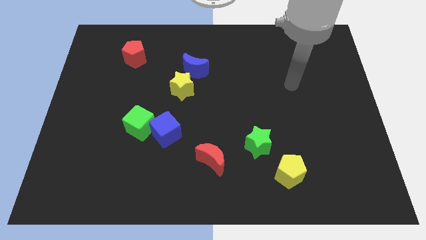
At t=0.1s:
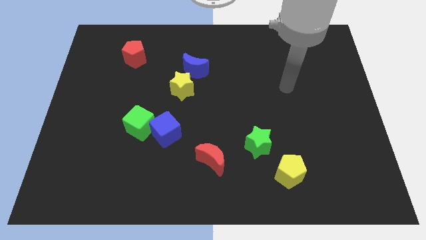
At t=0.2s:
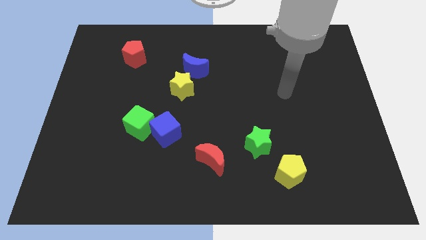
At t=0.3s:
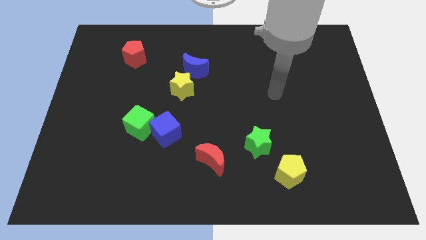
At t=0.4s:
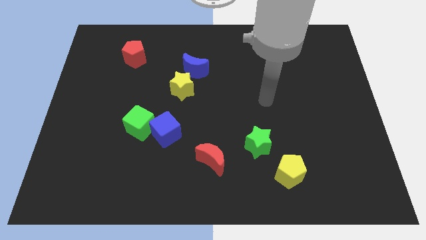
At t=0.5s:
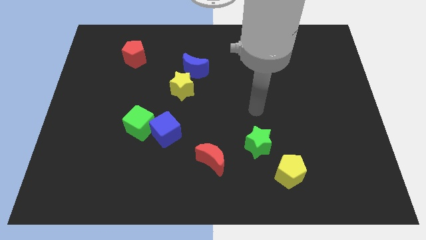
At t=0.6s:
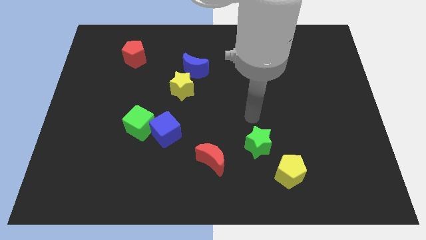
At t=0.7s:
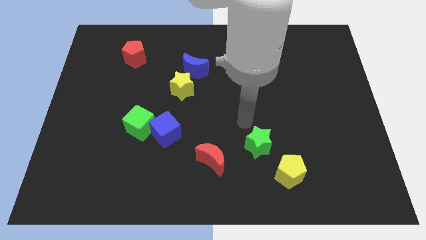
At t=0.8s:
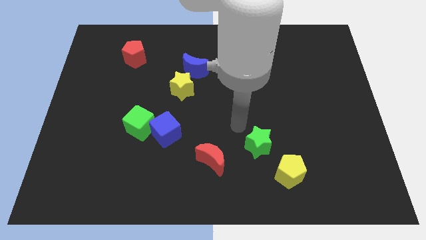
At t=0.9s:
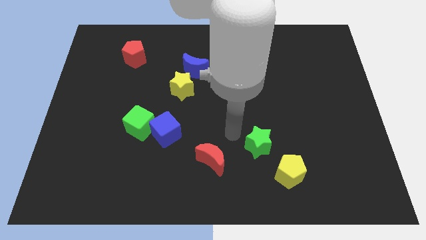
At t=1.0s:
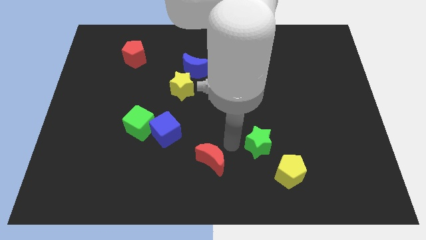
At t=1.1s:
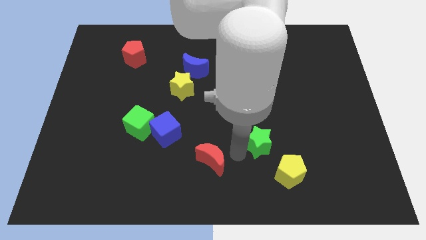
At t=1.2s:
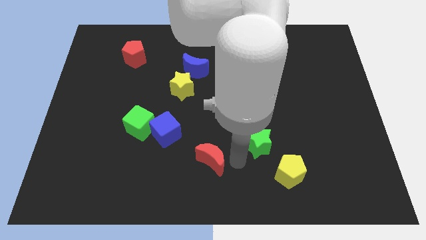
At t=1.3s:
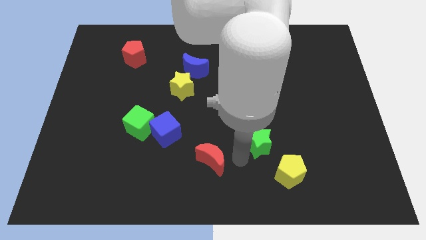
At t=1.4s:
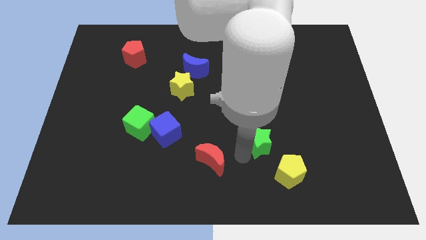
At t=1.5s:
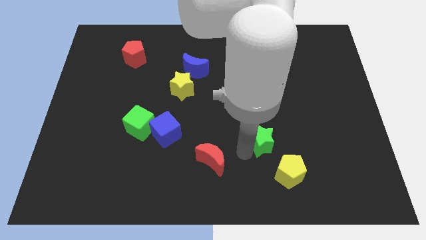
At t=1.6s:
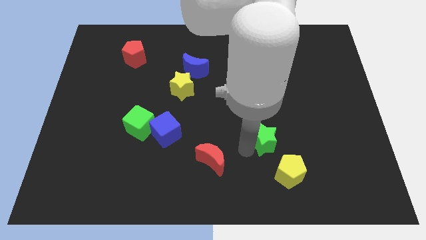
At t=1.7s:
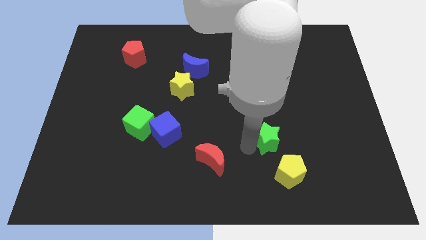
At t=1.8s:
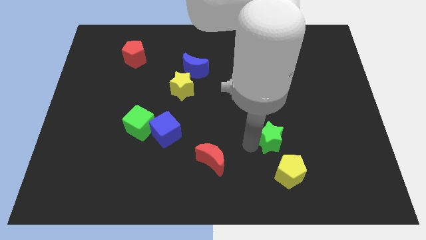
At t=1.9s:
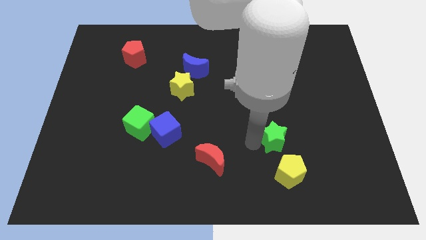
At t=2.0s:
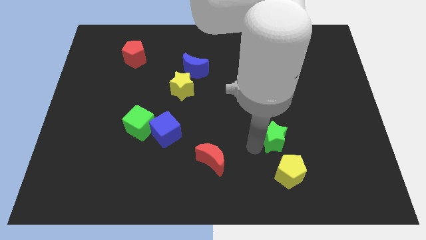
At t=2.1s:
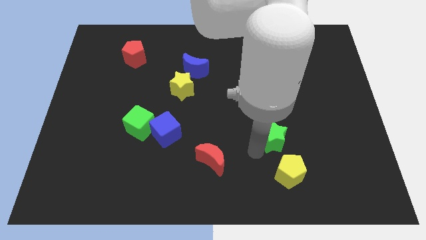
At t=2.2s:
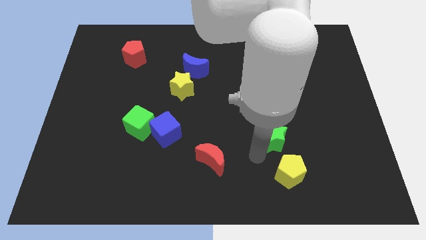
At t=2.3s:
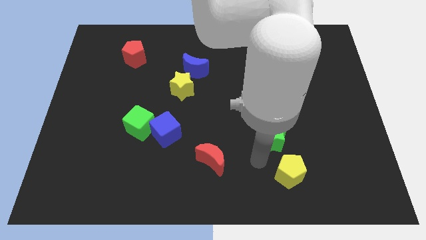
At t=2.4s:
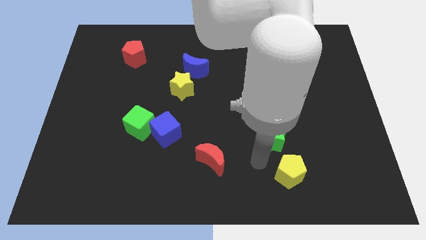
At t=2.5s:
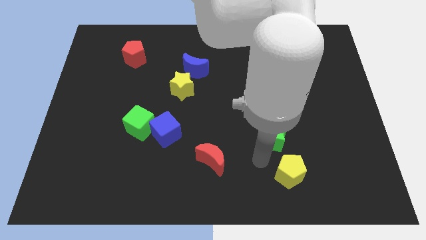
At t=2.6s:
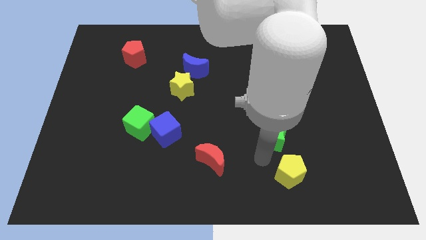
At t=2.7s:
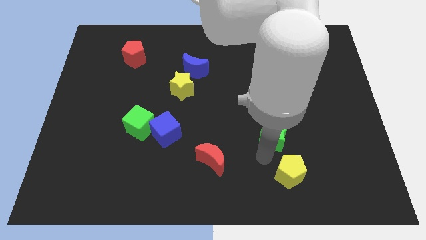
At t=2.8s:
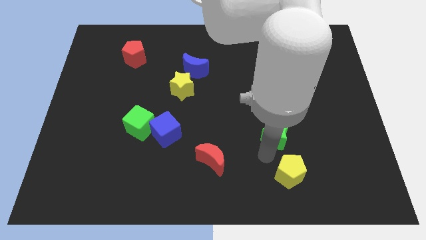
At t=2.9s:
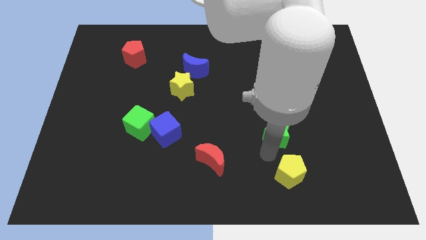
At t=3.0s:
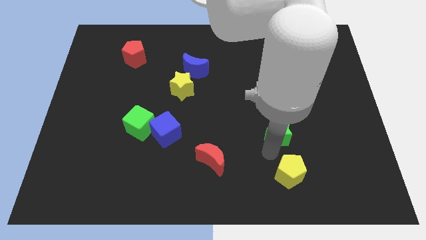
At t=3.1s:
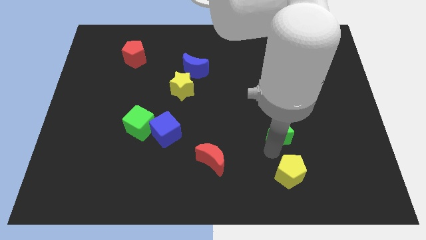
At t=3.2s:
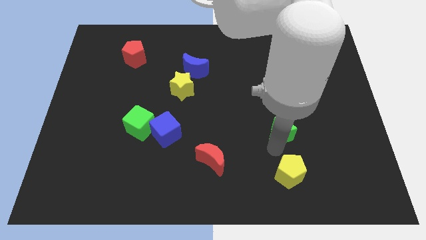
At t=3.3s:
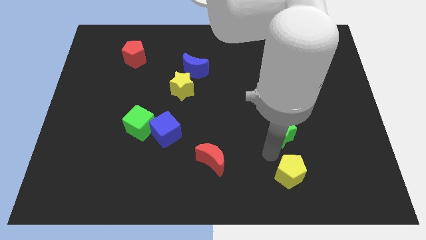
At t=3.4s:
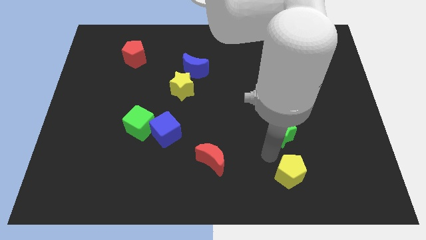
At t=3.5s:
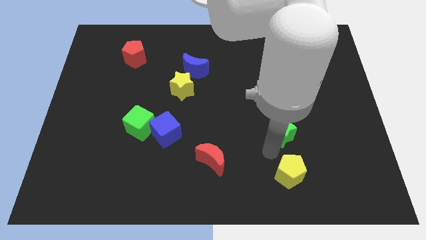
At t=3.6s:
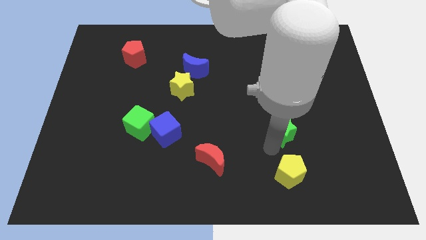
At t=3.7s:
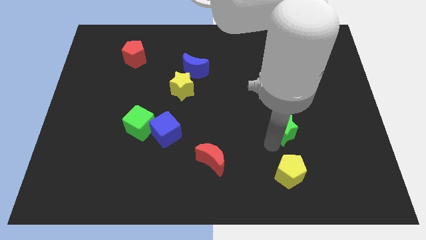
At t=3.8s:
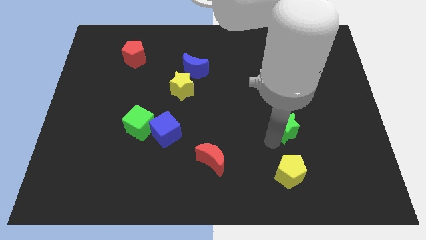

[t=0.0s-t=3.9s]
move the green star somewhat up and right

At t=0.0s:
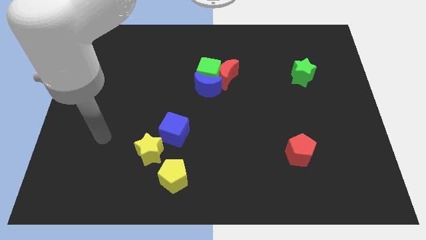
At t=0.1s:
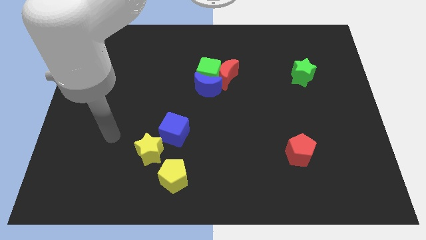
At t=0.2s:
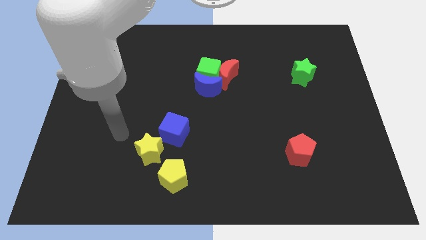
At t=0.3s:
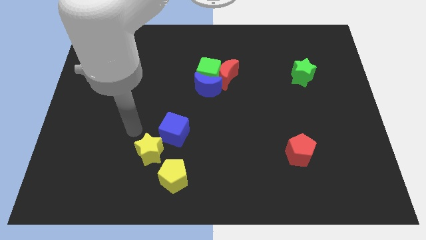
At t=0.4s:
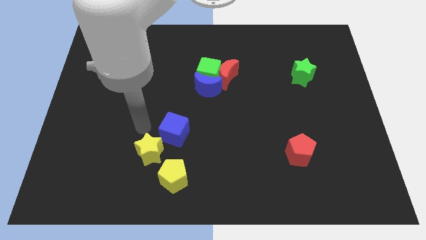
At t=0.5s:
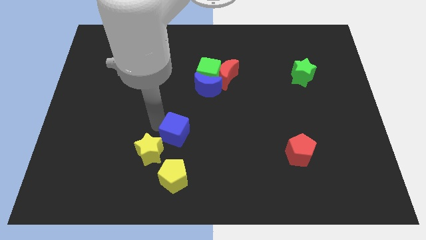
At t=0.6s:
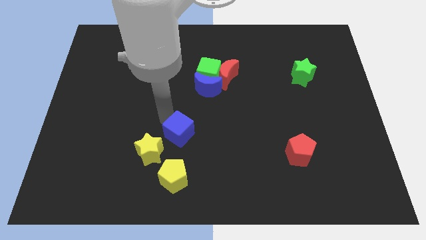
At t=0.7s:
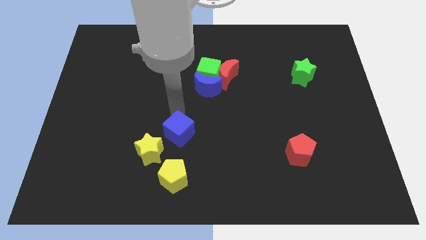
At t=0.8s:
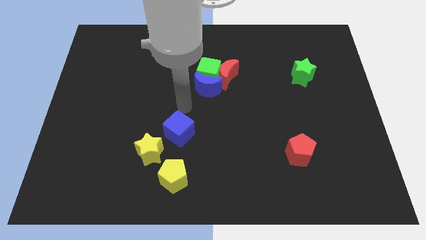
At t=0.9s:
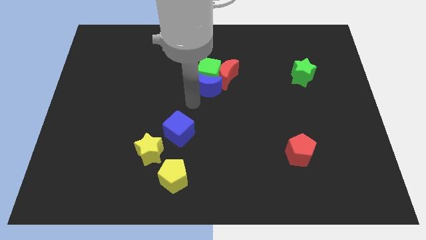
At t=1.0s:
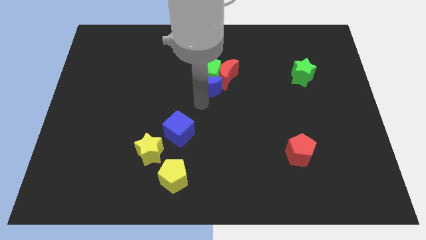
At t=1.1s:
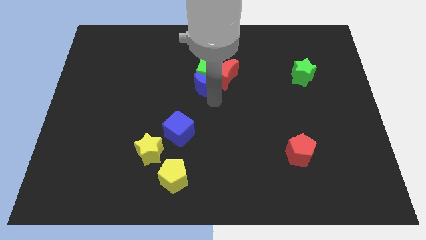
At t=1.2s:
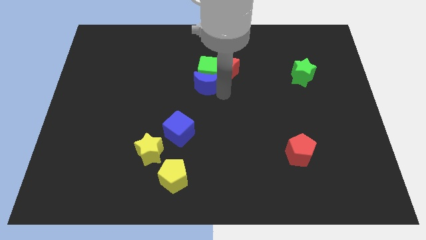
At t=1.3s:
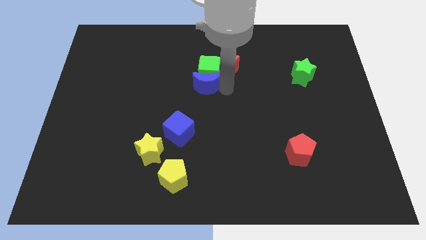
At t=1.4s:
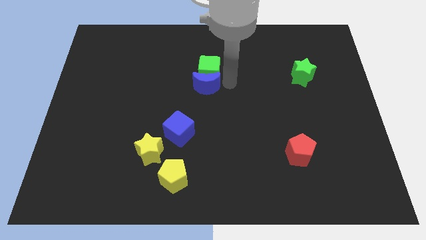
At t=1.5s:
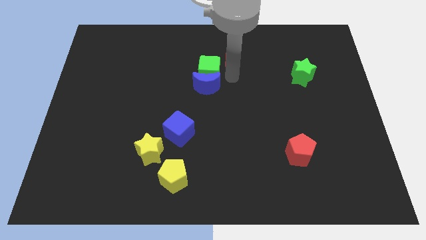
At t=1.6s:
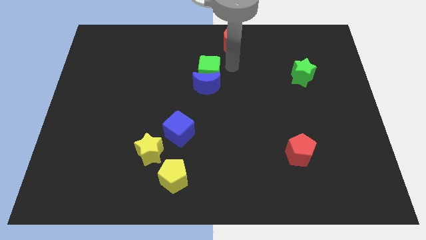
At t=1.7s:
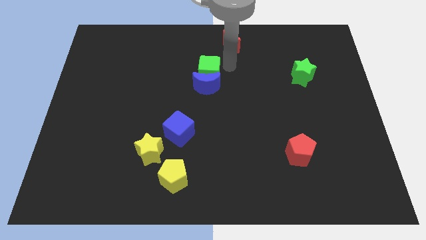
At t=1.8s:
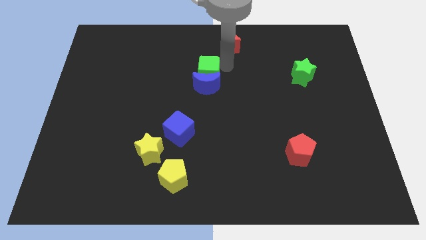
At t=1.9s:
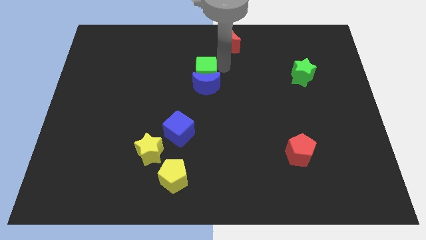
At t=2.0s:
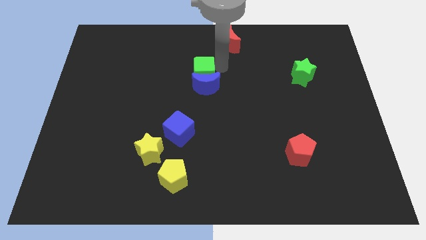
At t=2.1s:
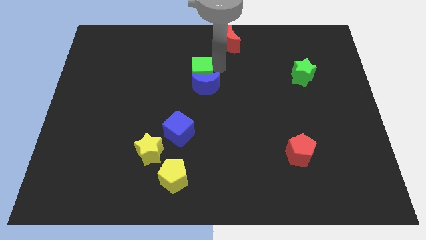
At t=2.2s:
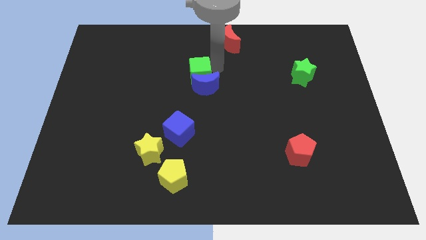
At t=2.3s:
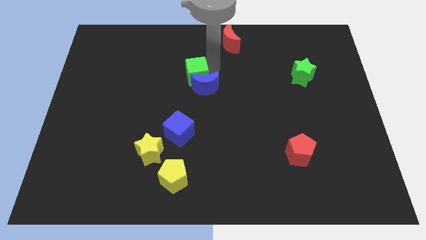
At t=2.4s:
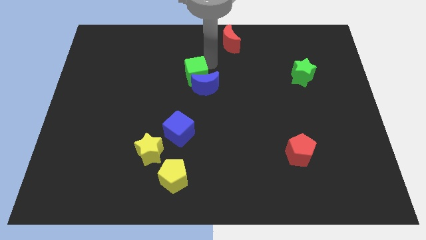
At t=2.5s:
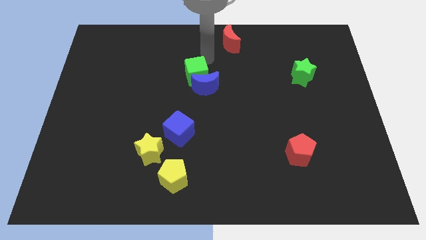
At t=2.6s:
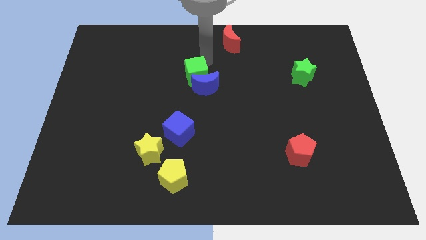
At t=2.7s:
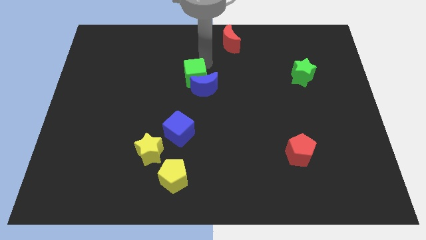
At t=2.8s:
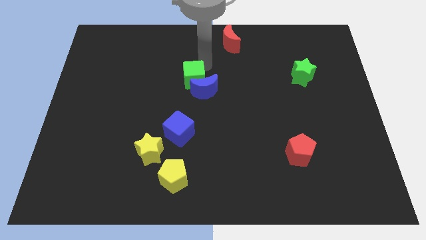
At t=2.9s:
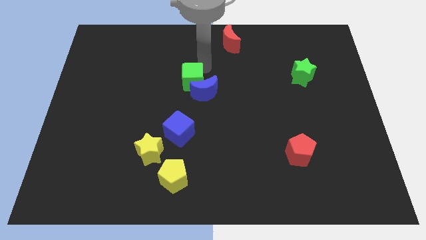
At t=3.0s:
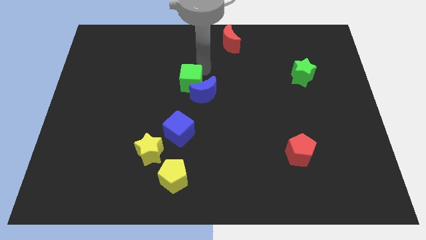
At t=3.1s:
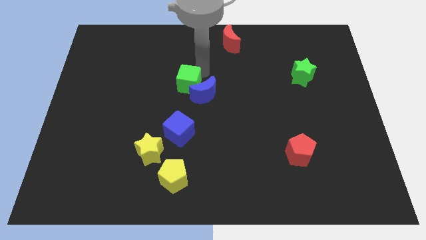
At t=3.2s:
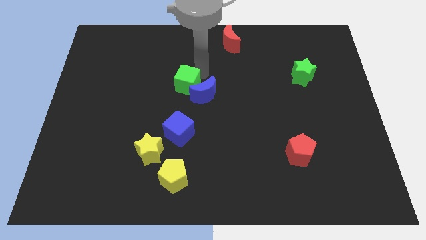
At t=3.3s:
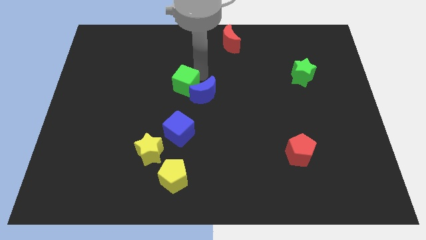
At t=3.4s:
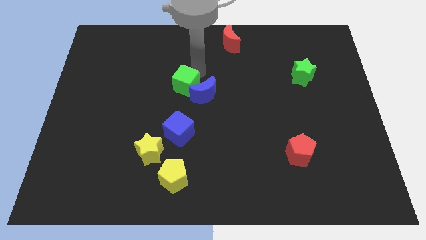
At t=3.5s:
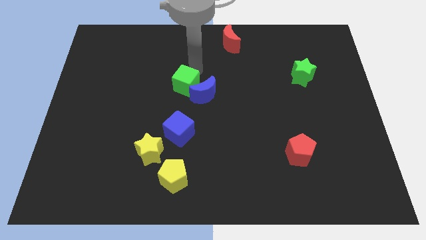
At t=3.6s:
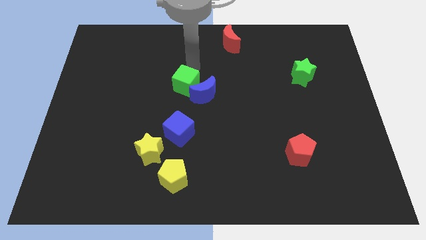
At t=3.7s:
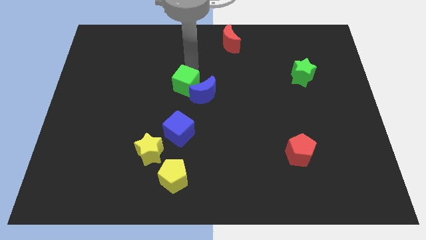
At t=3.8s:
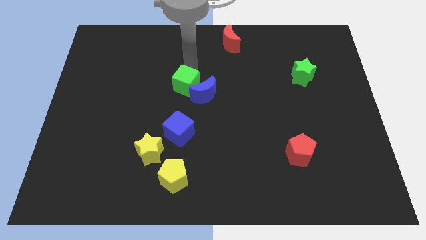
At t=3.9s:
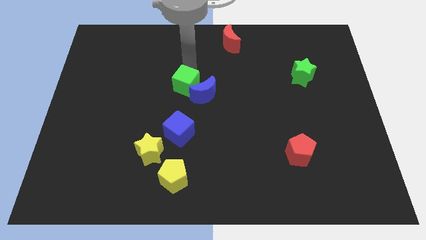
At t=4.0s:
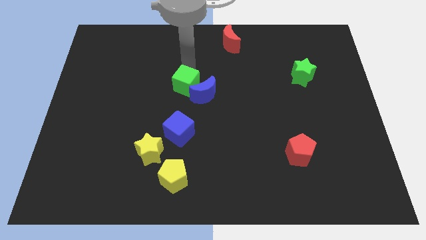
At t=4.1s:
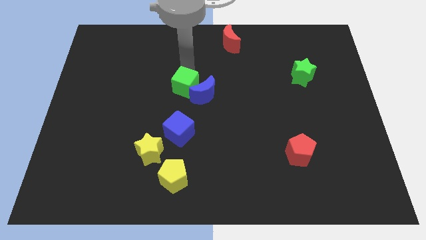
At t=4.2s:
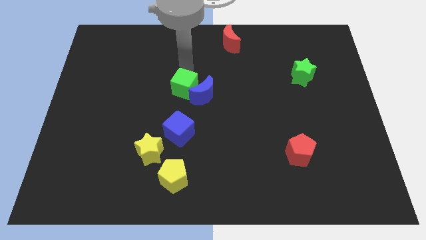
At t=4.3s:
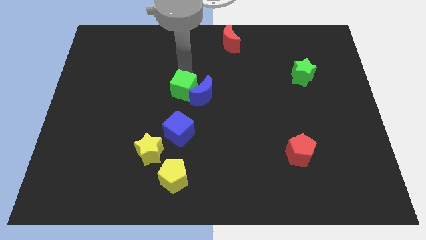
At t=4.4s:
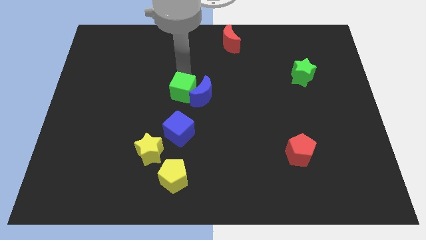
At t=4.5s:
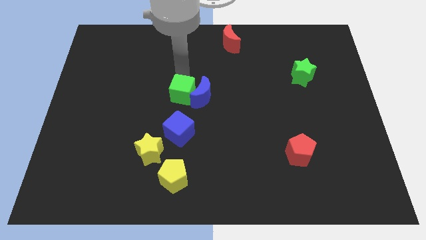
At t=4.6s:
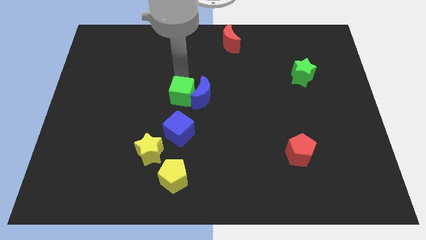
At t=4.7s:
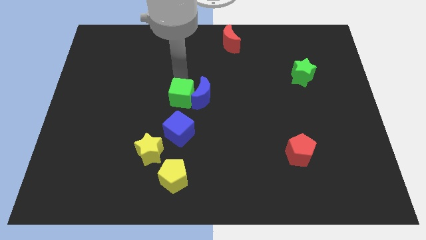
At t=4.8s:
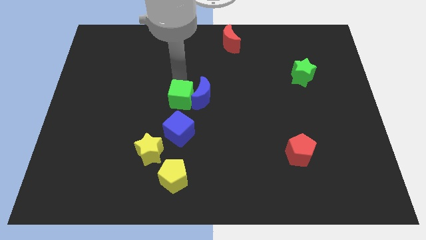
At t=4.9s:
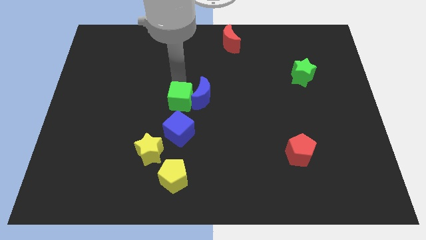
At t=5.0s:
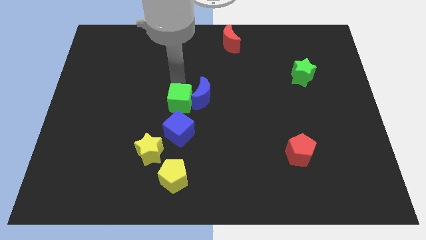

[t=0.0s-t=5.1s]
push the green cube slightly downwards
